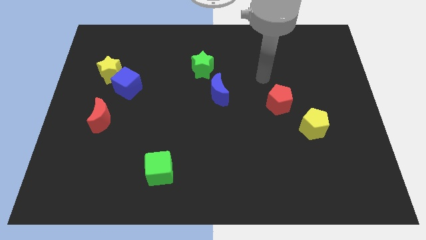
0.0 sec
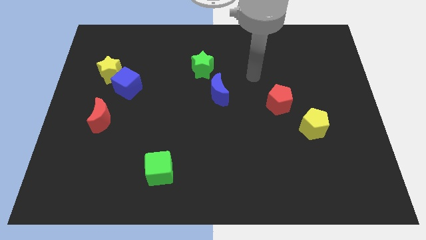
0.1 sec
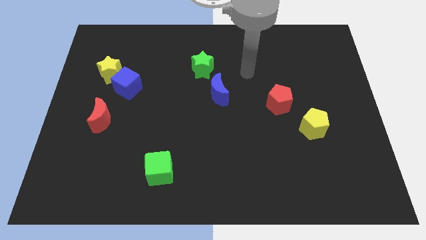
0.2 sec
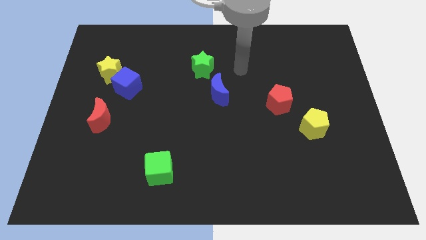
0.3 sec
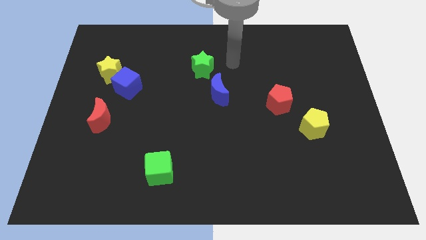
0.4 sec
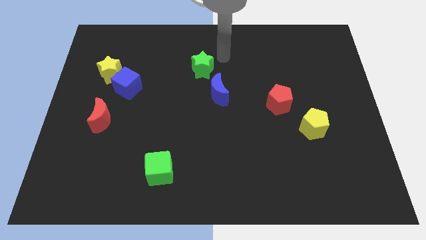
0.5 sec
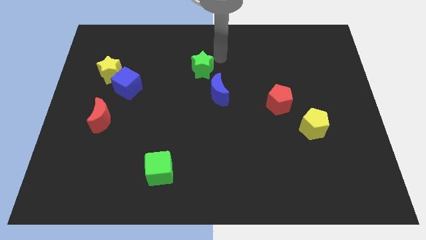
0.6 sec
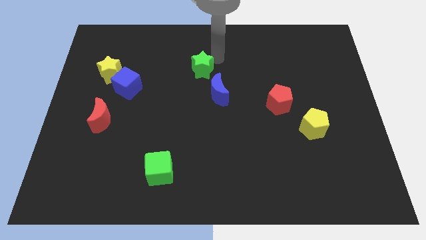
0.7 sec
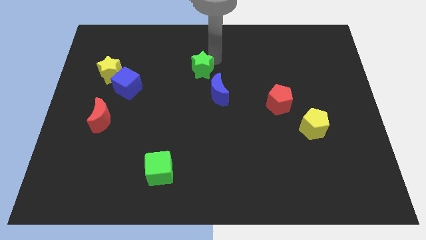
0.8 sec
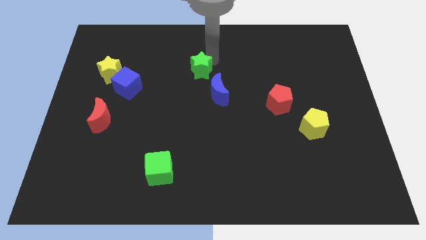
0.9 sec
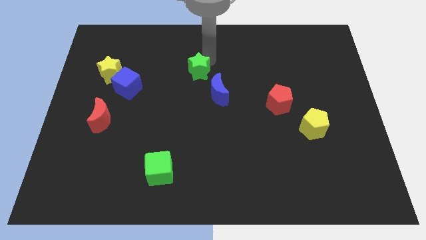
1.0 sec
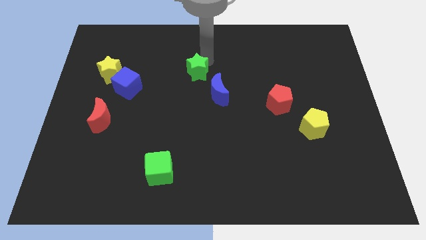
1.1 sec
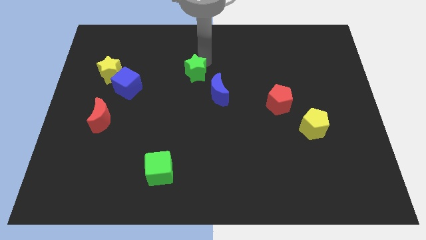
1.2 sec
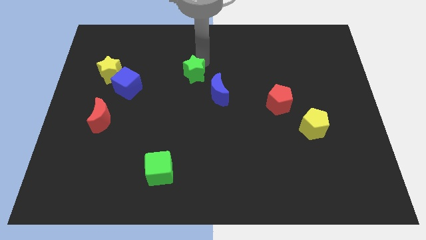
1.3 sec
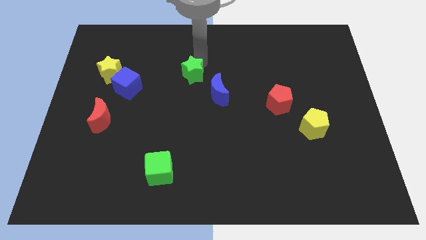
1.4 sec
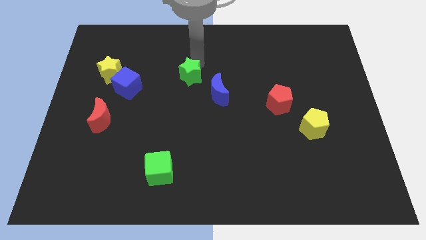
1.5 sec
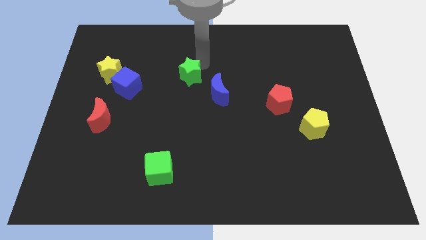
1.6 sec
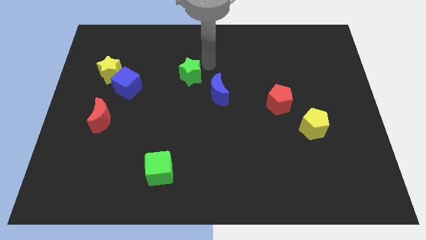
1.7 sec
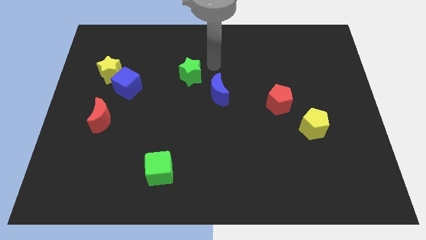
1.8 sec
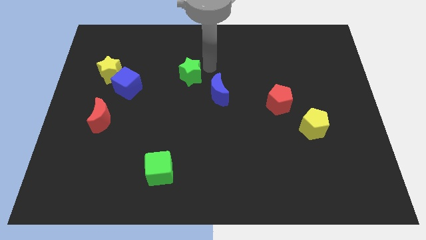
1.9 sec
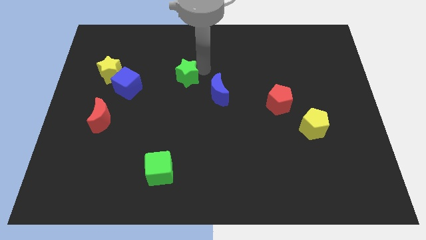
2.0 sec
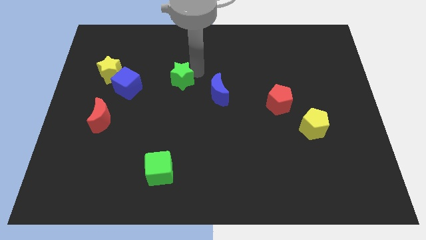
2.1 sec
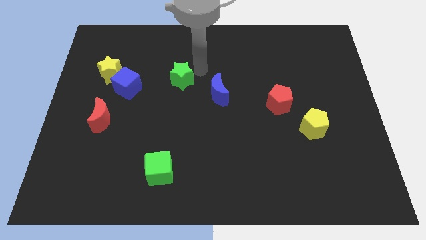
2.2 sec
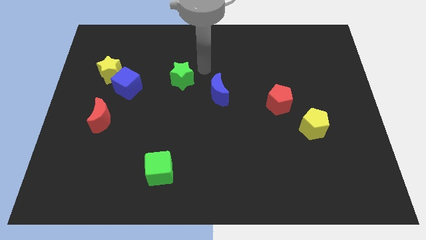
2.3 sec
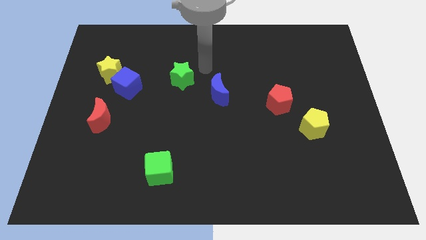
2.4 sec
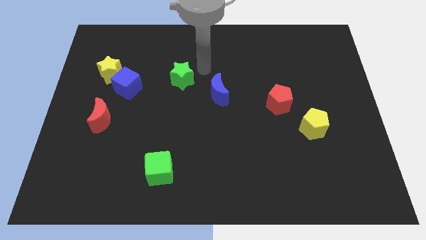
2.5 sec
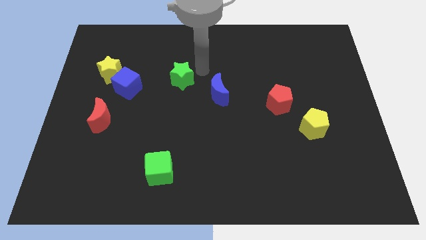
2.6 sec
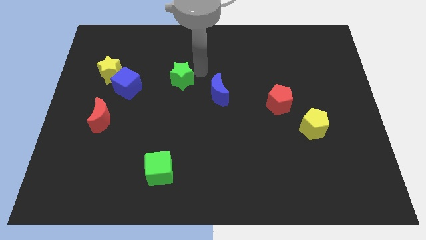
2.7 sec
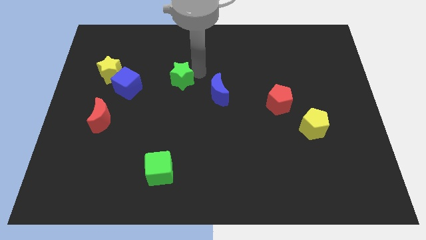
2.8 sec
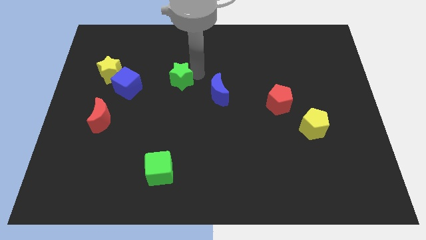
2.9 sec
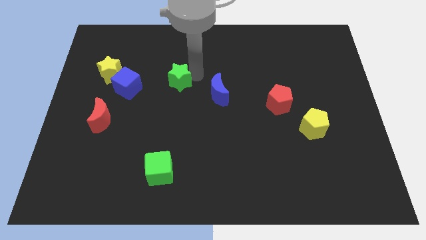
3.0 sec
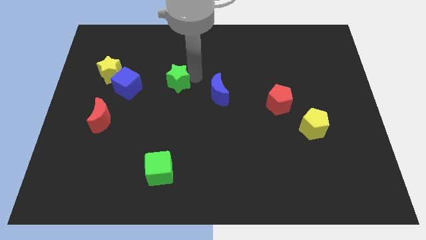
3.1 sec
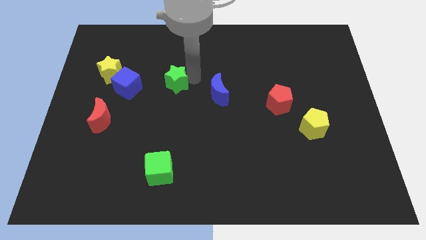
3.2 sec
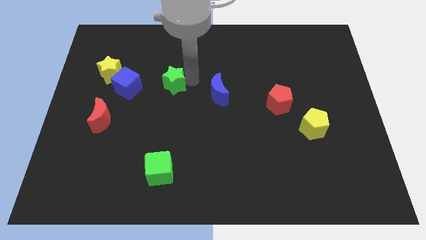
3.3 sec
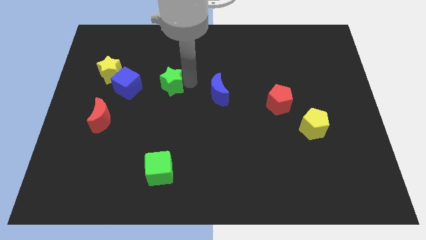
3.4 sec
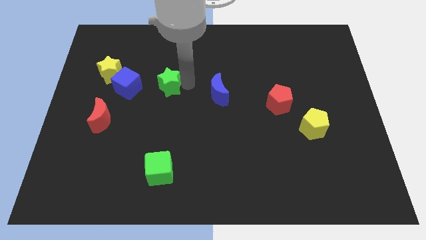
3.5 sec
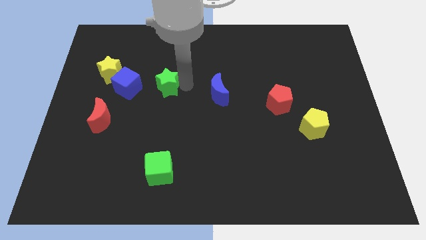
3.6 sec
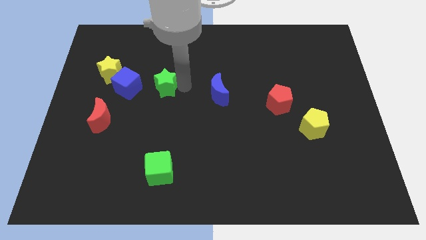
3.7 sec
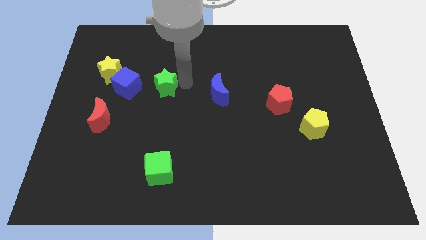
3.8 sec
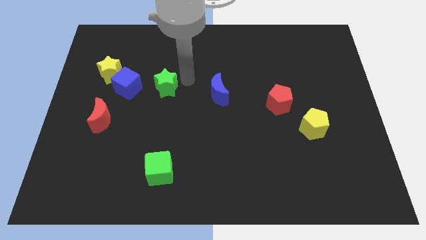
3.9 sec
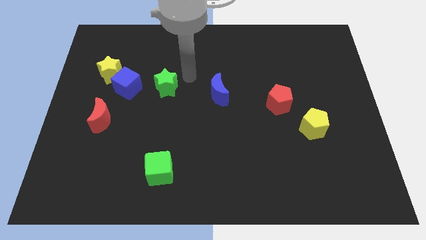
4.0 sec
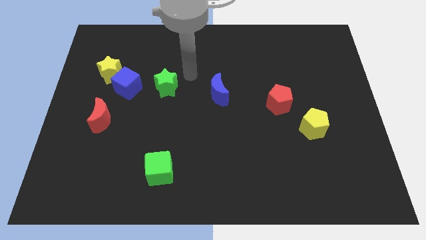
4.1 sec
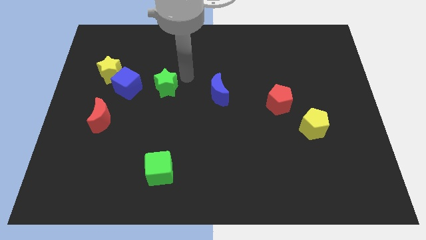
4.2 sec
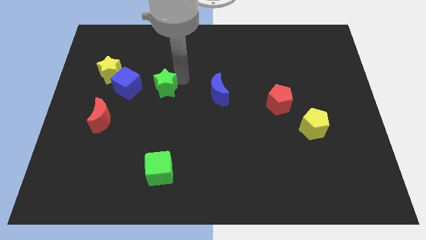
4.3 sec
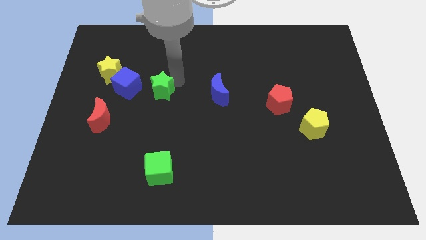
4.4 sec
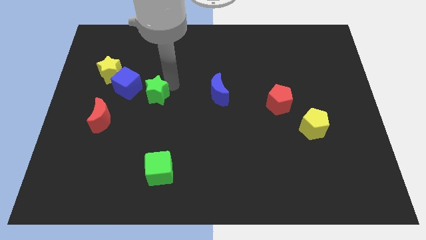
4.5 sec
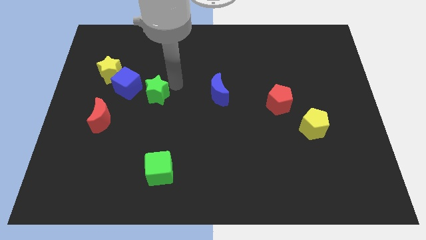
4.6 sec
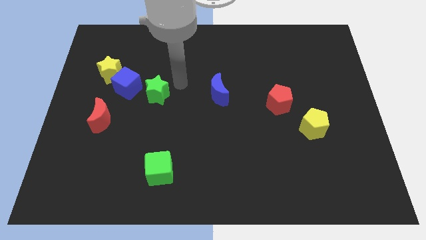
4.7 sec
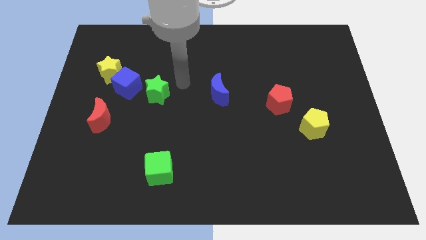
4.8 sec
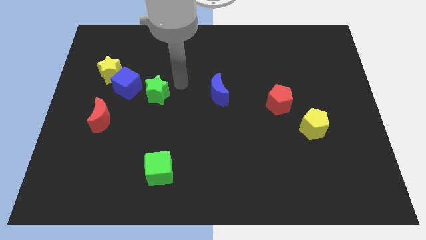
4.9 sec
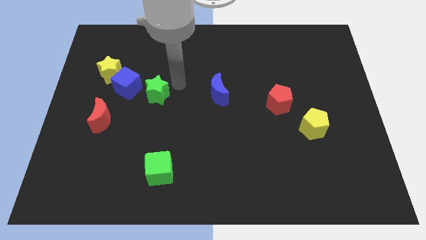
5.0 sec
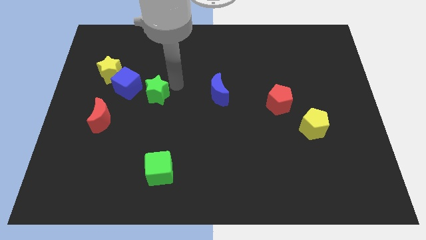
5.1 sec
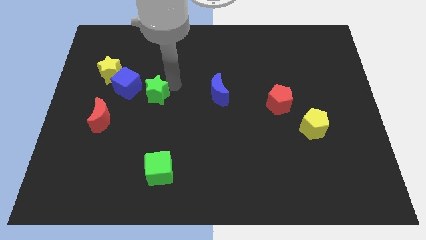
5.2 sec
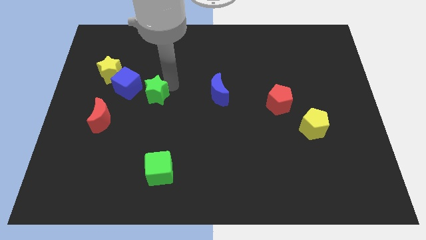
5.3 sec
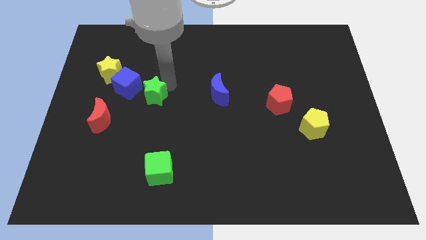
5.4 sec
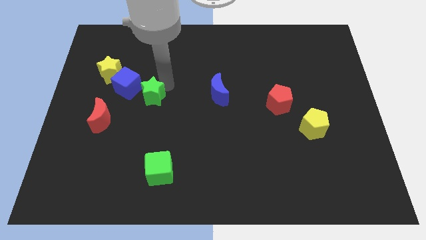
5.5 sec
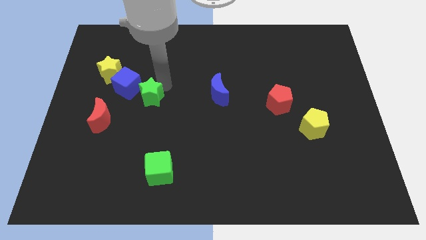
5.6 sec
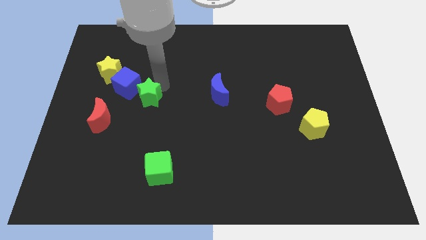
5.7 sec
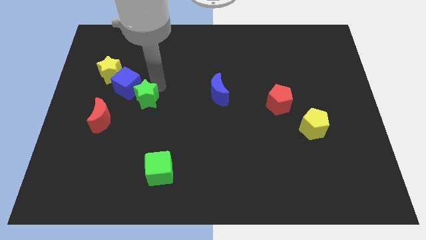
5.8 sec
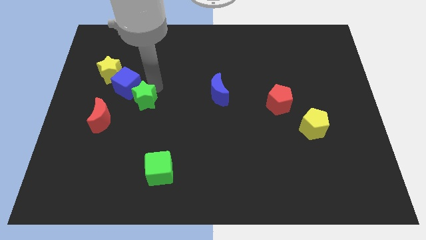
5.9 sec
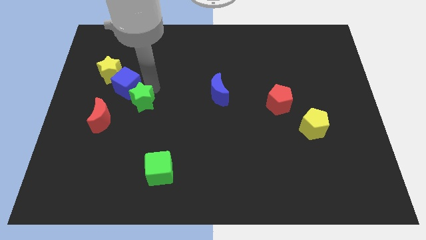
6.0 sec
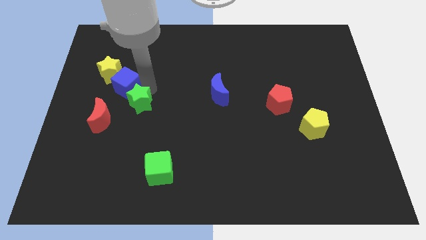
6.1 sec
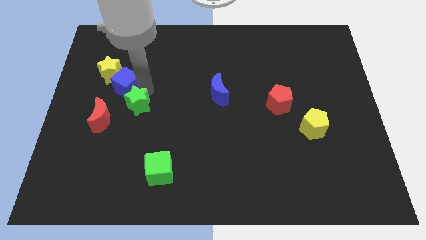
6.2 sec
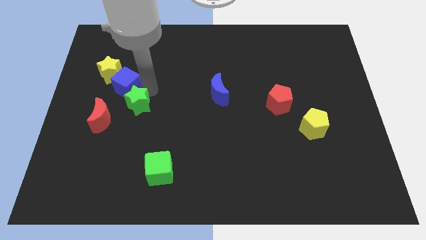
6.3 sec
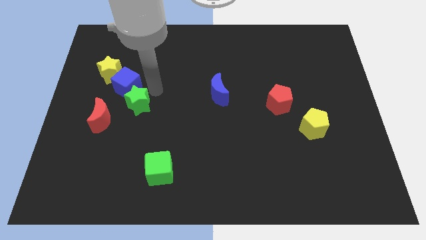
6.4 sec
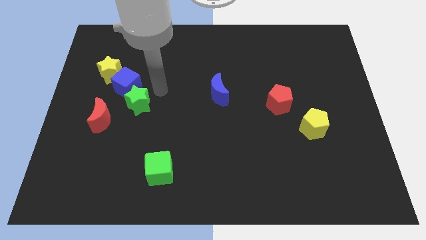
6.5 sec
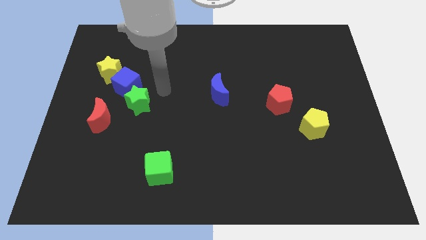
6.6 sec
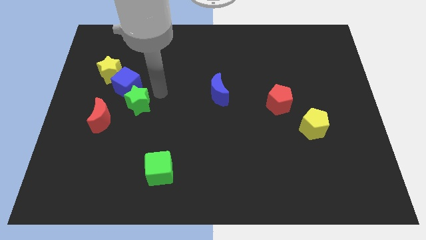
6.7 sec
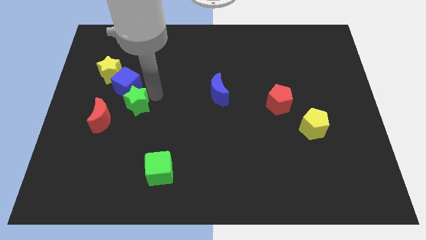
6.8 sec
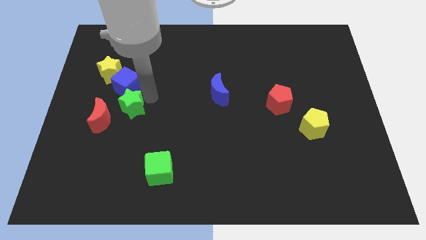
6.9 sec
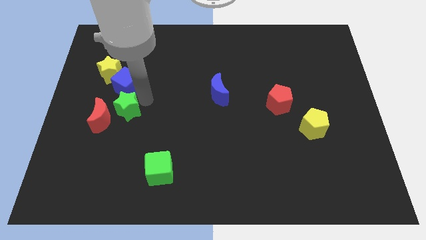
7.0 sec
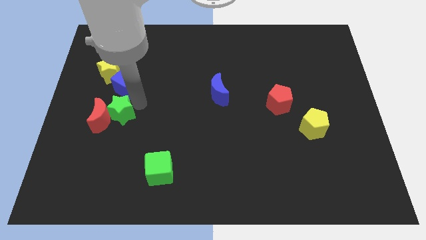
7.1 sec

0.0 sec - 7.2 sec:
move the green star towards the red moon
